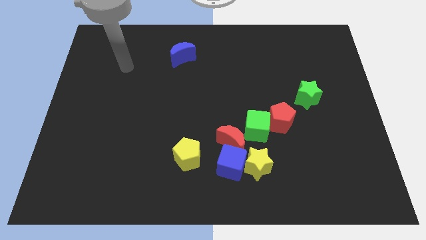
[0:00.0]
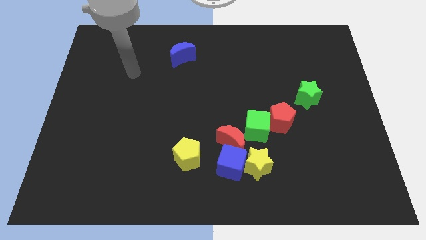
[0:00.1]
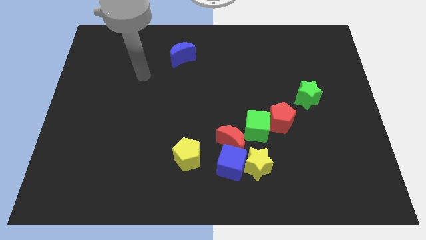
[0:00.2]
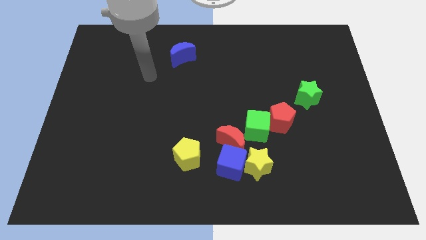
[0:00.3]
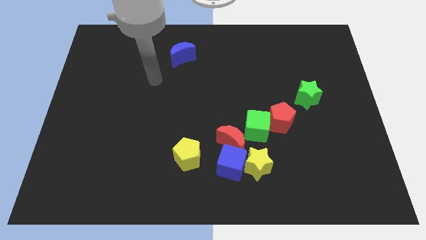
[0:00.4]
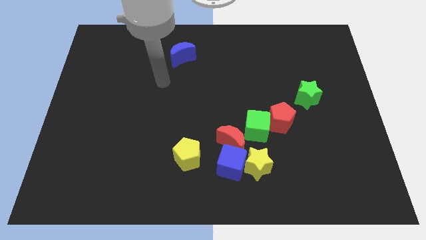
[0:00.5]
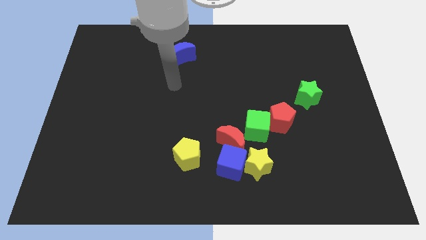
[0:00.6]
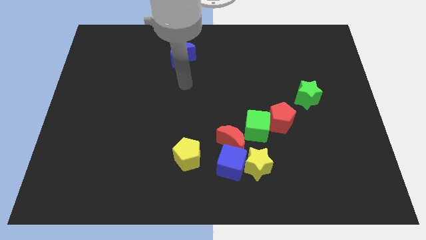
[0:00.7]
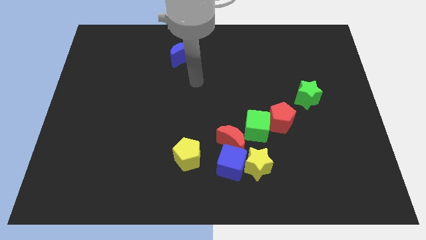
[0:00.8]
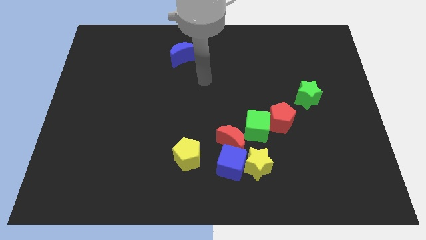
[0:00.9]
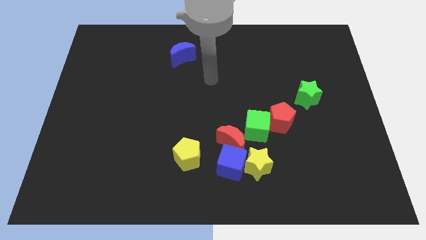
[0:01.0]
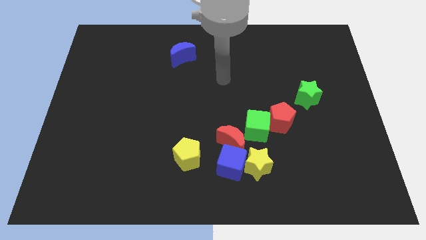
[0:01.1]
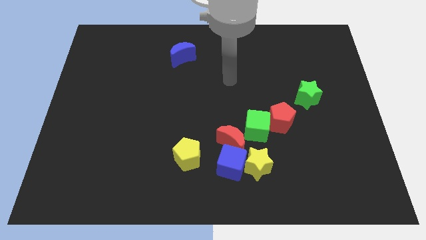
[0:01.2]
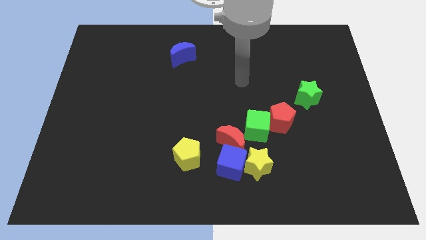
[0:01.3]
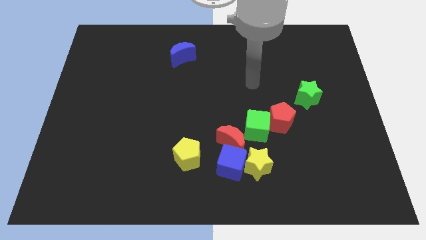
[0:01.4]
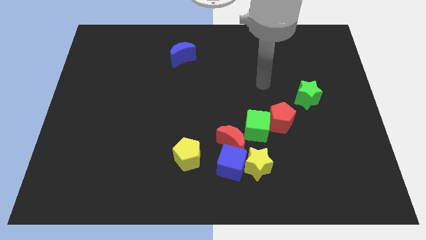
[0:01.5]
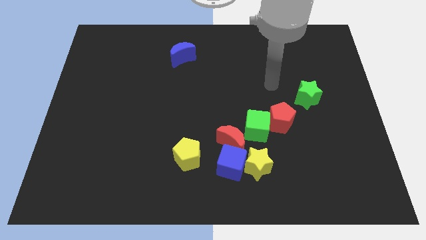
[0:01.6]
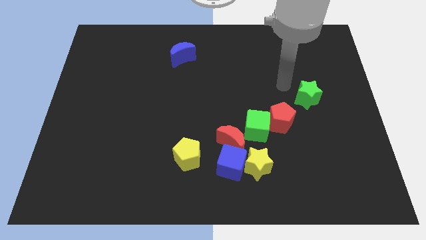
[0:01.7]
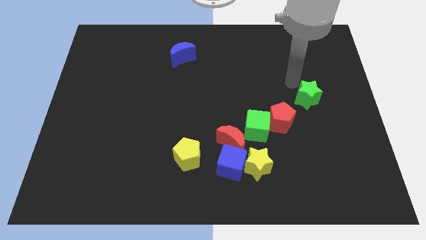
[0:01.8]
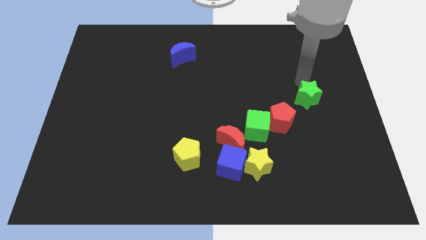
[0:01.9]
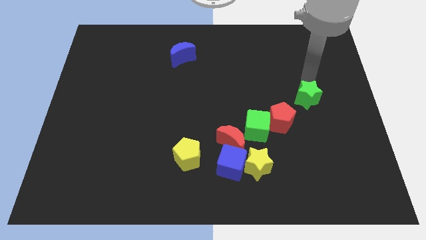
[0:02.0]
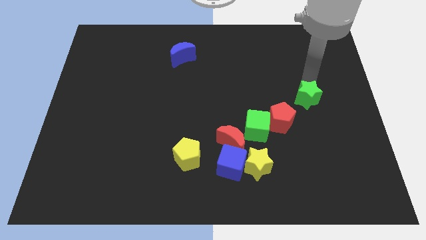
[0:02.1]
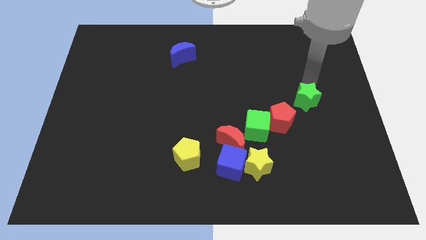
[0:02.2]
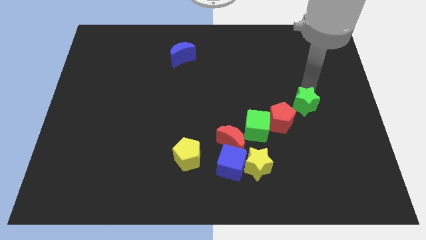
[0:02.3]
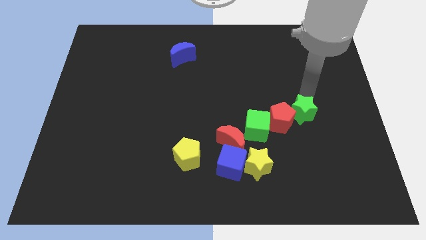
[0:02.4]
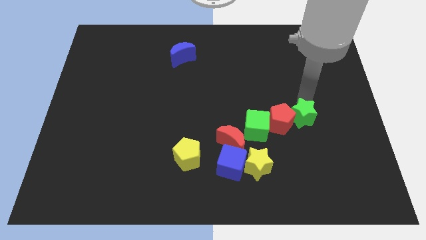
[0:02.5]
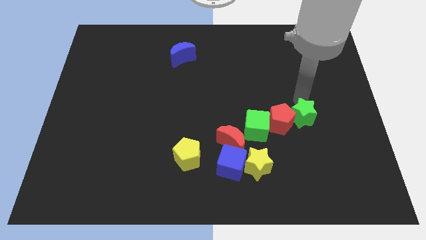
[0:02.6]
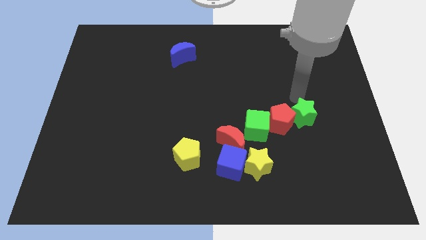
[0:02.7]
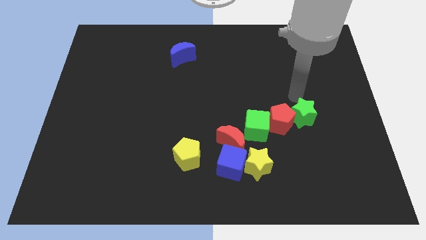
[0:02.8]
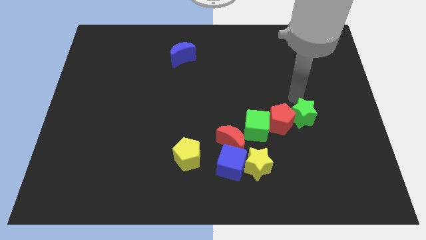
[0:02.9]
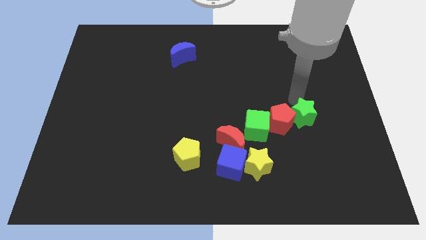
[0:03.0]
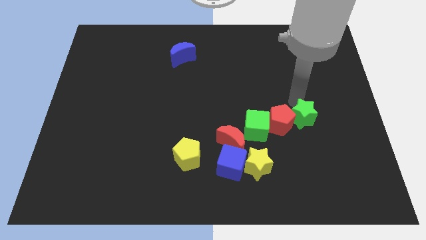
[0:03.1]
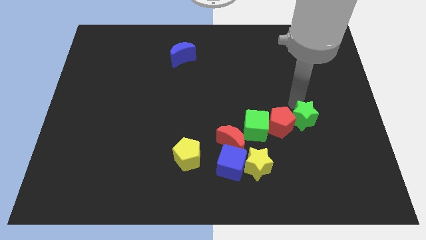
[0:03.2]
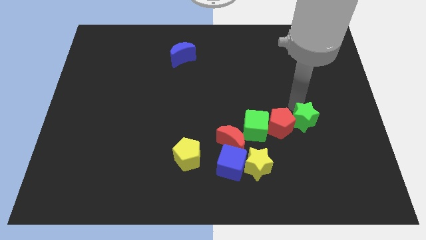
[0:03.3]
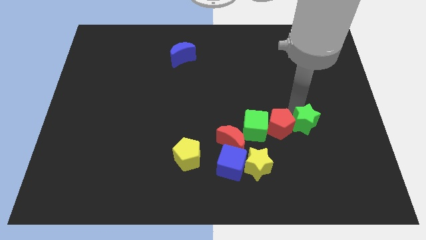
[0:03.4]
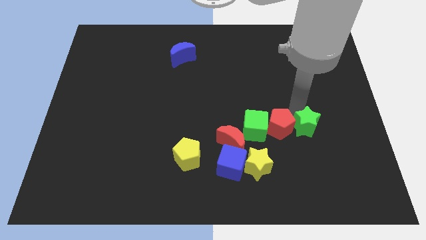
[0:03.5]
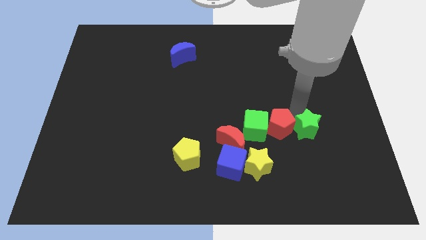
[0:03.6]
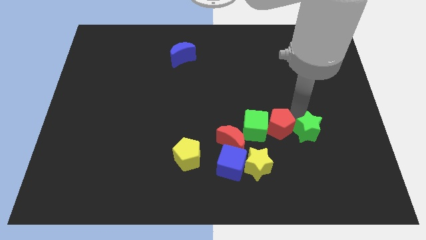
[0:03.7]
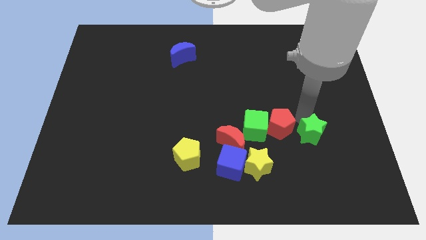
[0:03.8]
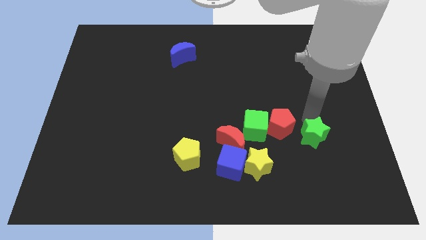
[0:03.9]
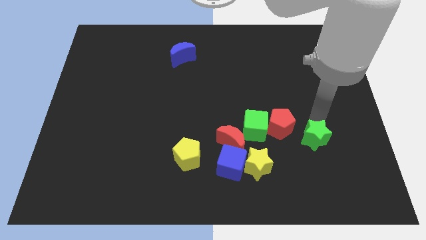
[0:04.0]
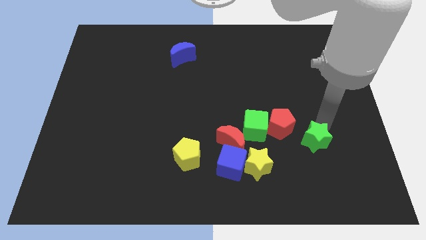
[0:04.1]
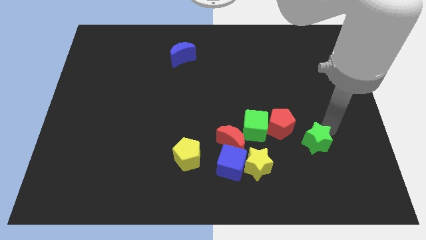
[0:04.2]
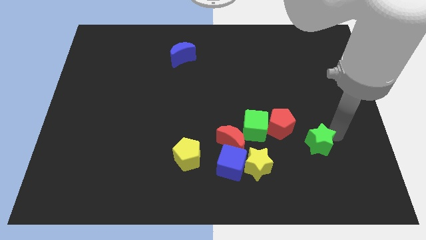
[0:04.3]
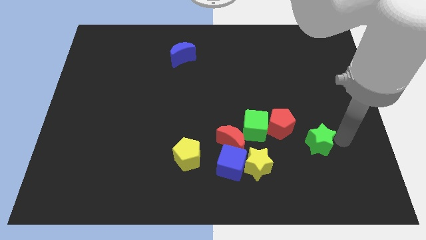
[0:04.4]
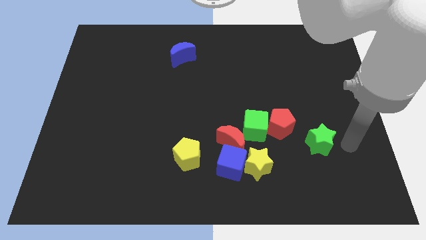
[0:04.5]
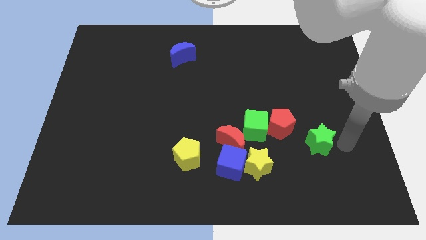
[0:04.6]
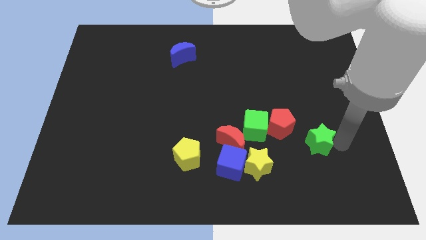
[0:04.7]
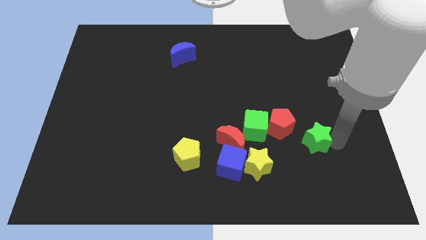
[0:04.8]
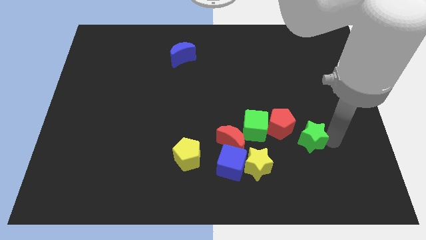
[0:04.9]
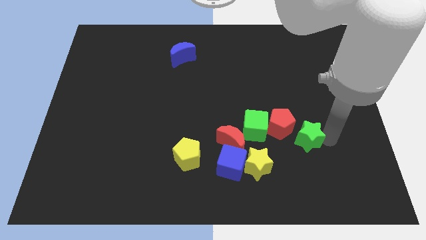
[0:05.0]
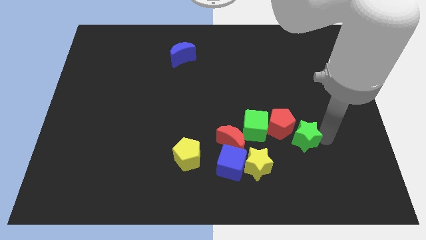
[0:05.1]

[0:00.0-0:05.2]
put the green star to the right of the red moon

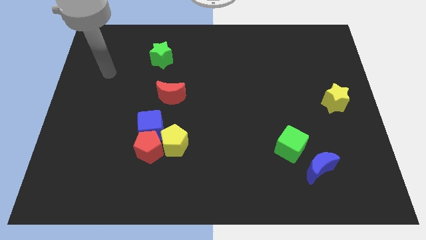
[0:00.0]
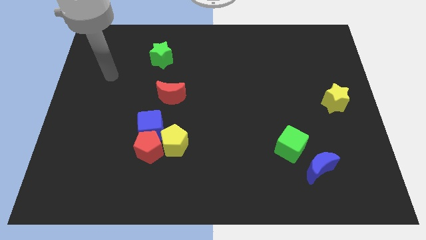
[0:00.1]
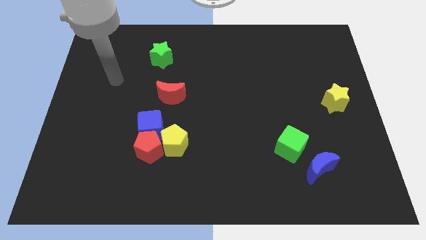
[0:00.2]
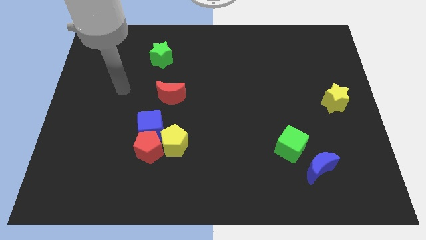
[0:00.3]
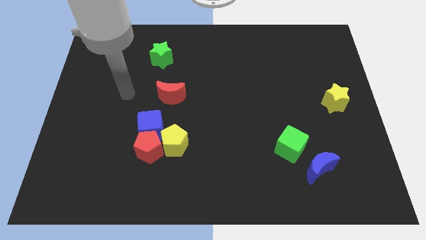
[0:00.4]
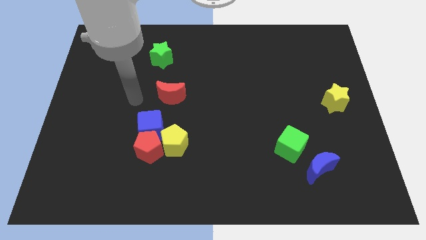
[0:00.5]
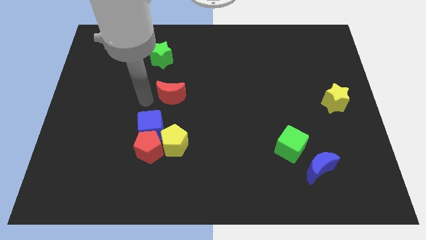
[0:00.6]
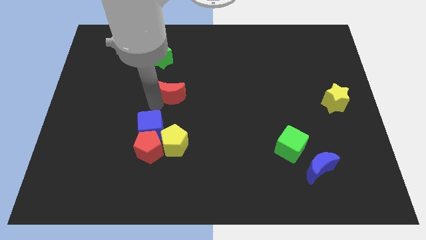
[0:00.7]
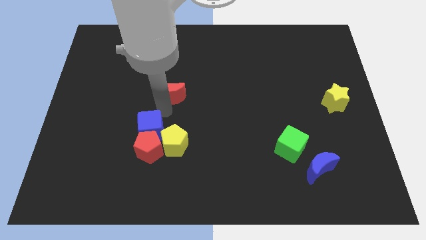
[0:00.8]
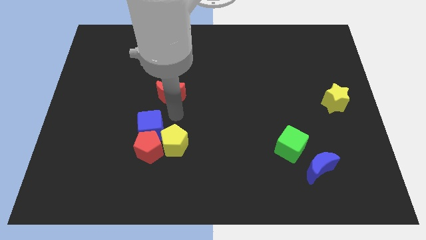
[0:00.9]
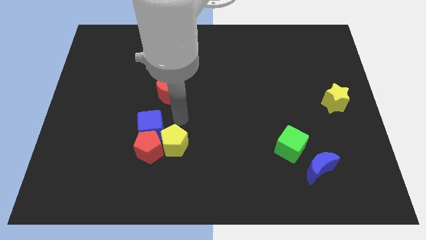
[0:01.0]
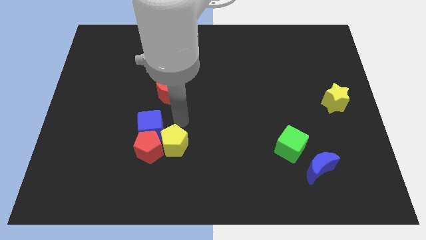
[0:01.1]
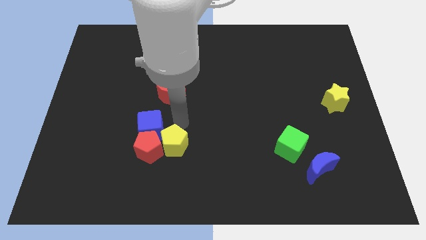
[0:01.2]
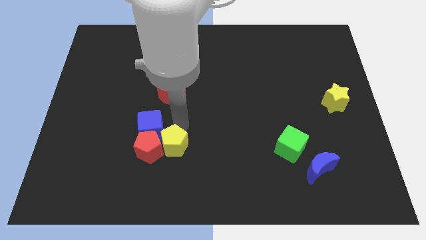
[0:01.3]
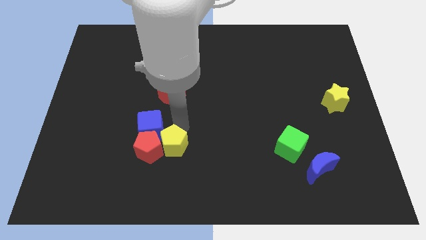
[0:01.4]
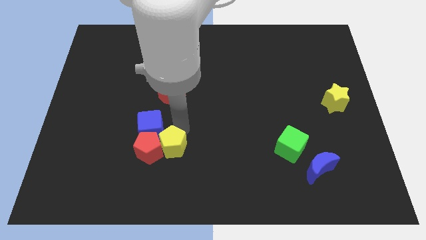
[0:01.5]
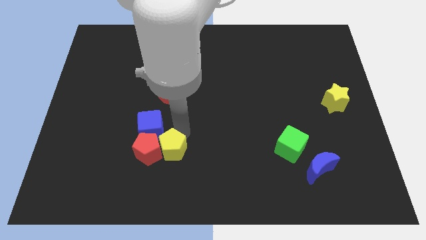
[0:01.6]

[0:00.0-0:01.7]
push the yellow pentagon to the bottom of the blue cube
